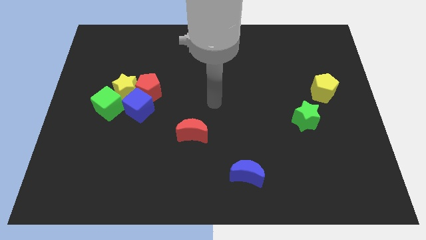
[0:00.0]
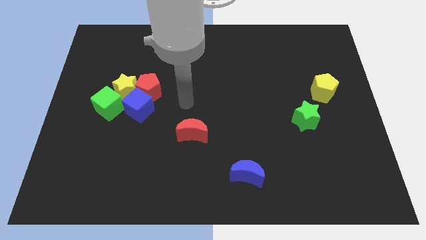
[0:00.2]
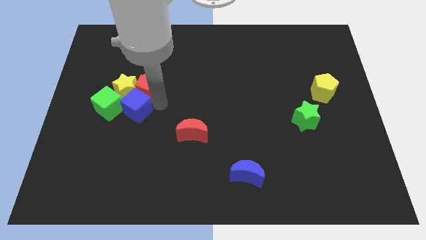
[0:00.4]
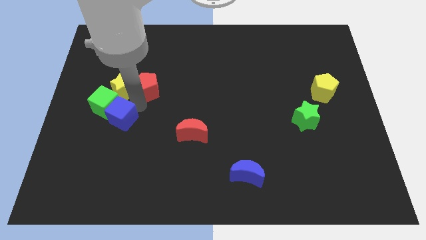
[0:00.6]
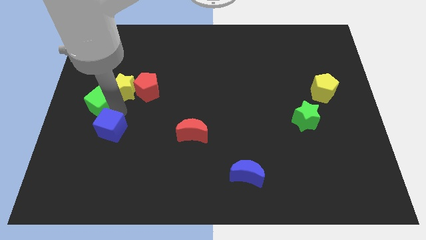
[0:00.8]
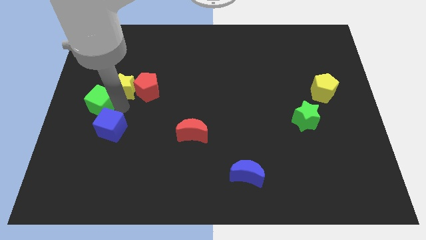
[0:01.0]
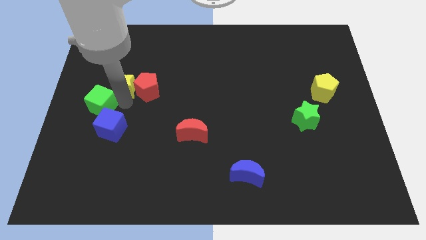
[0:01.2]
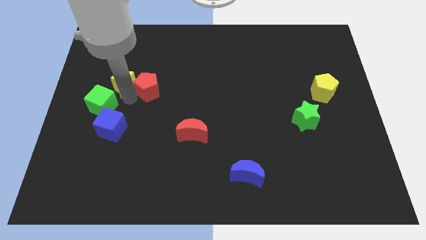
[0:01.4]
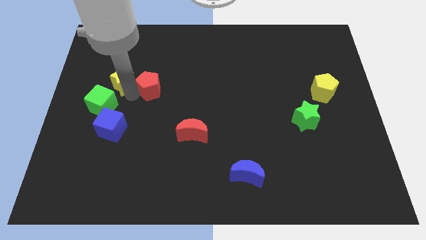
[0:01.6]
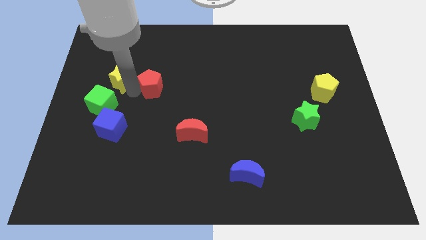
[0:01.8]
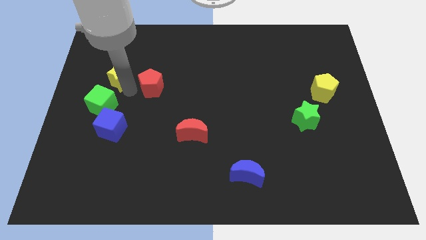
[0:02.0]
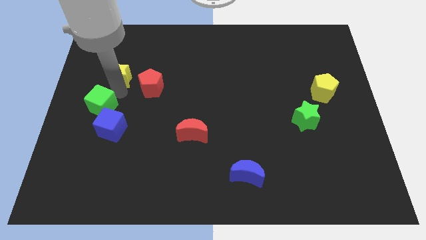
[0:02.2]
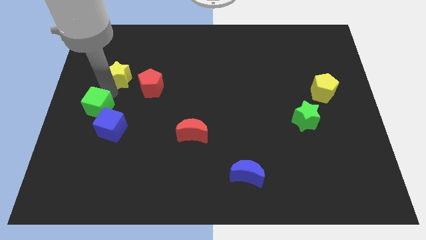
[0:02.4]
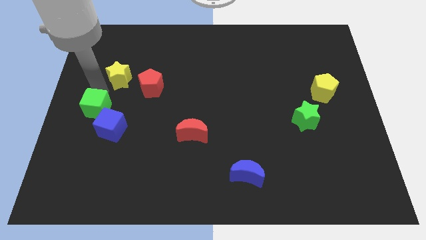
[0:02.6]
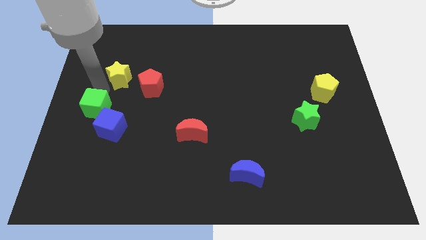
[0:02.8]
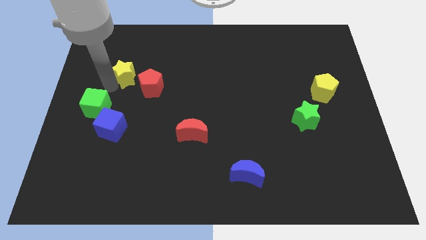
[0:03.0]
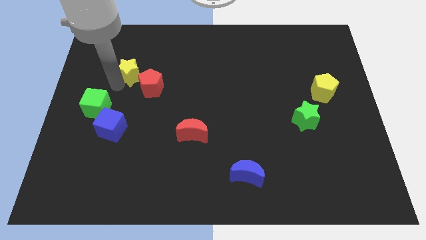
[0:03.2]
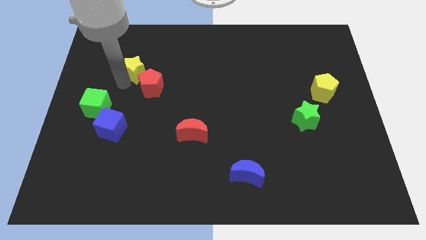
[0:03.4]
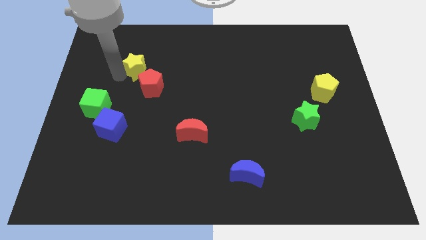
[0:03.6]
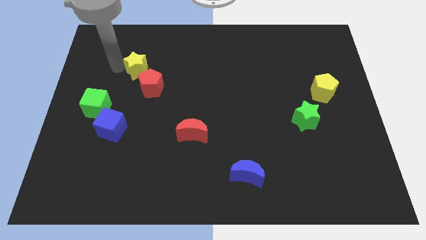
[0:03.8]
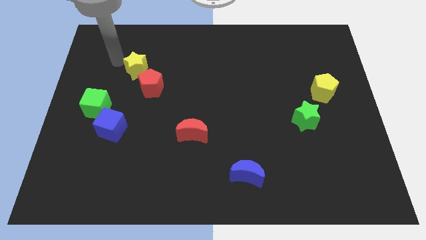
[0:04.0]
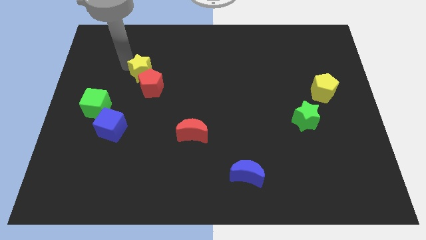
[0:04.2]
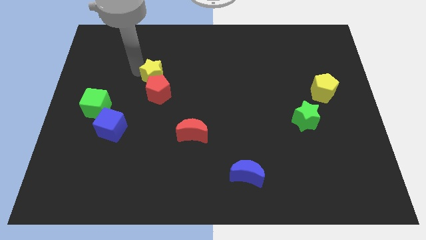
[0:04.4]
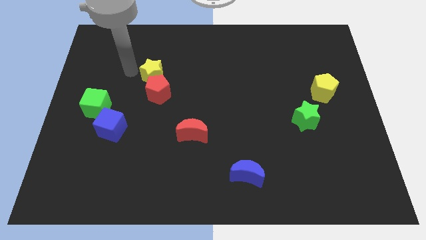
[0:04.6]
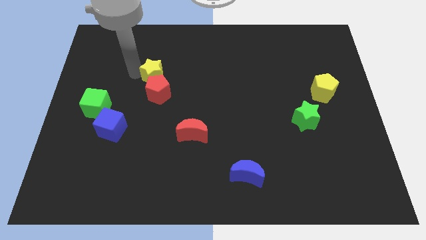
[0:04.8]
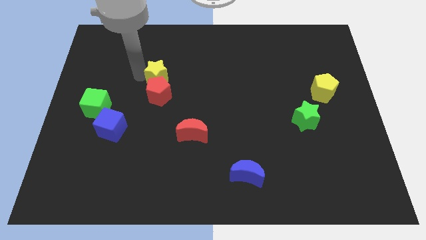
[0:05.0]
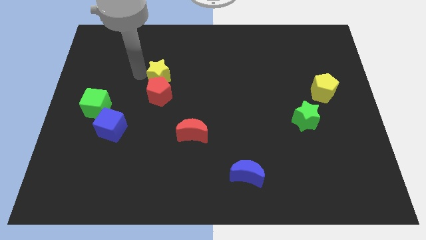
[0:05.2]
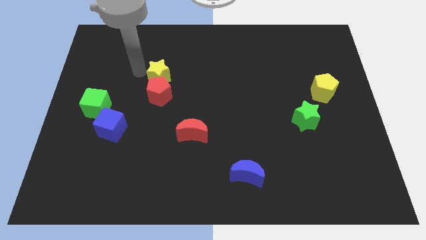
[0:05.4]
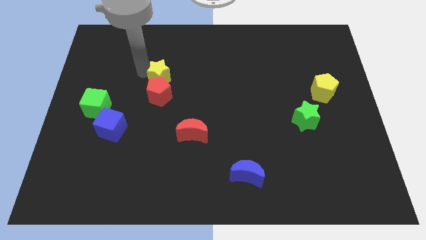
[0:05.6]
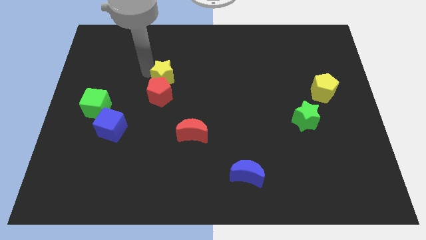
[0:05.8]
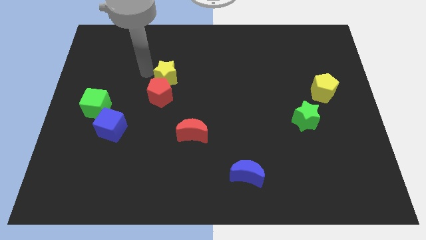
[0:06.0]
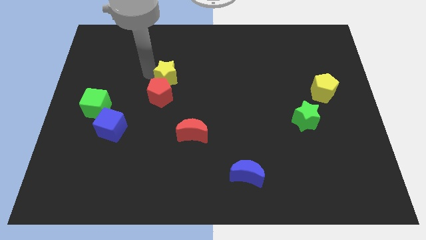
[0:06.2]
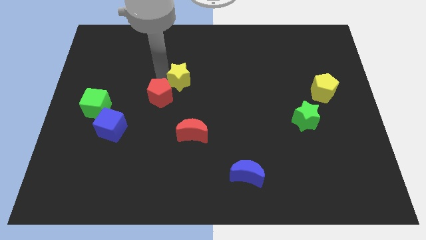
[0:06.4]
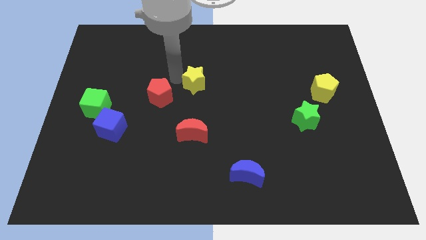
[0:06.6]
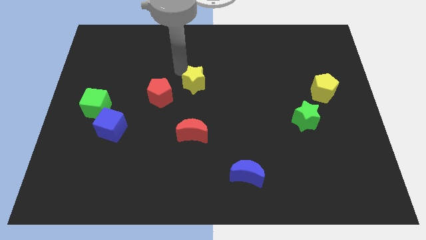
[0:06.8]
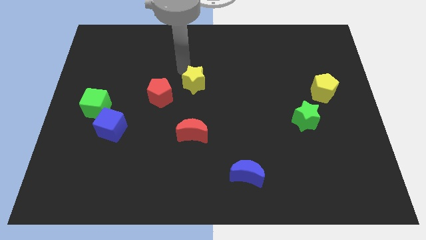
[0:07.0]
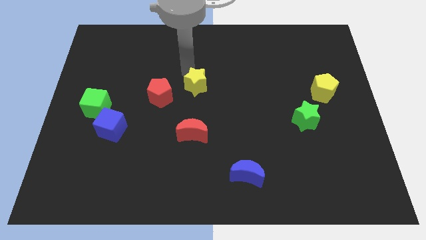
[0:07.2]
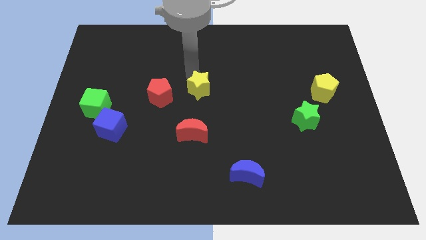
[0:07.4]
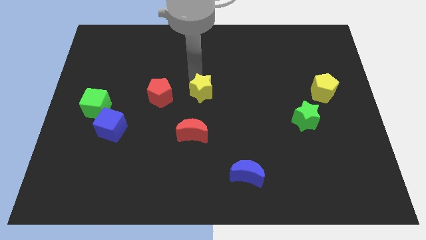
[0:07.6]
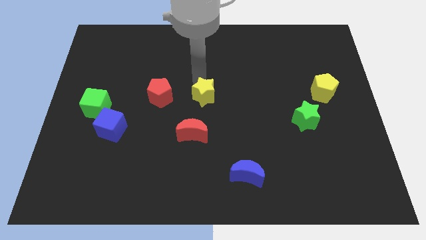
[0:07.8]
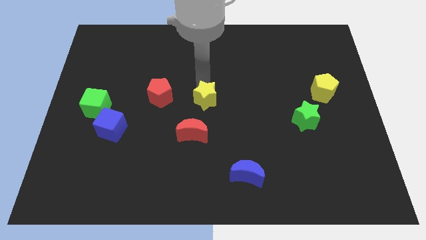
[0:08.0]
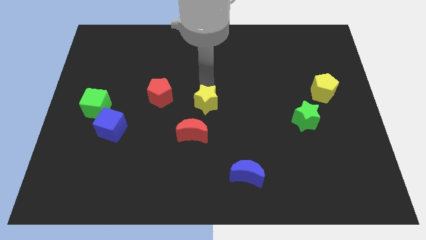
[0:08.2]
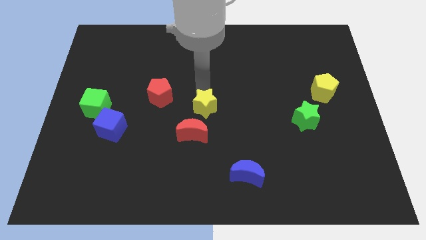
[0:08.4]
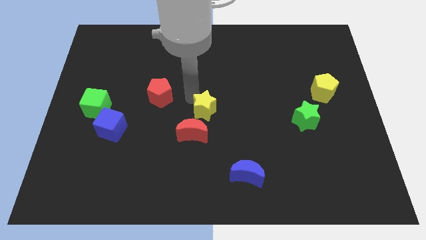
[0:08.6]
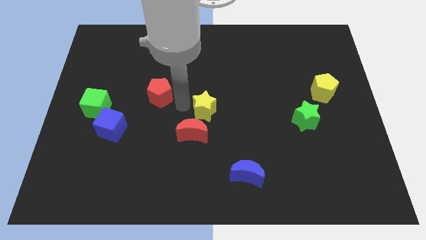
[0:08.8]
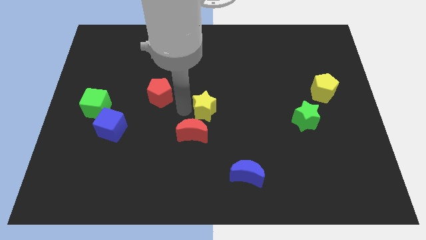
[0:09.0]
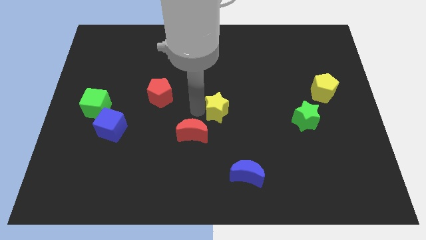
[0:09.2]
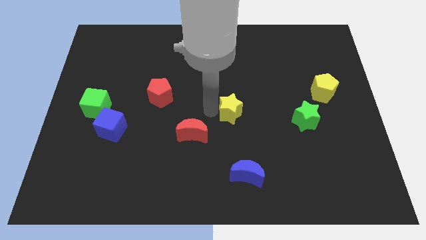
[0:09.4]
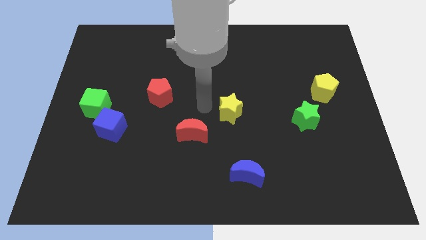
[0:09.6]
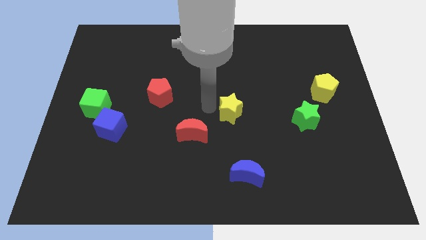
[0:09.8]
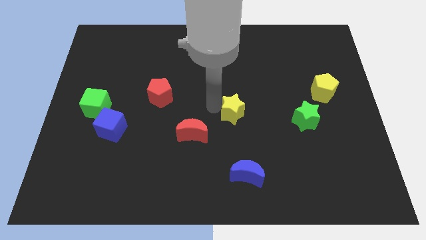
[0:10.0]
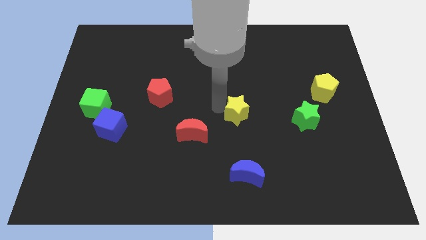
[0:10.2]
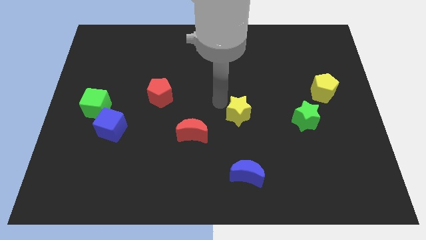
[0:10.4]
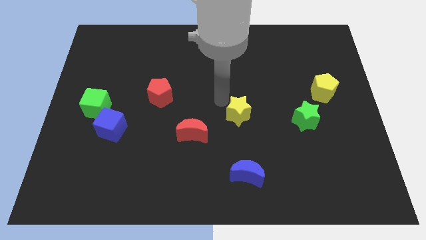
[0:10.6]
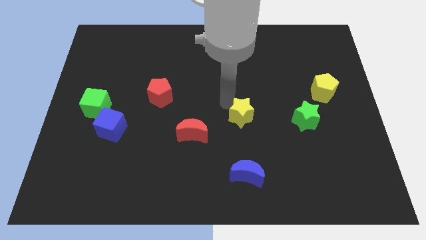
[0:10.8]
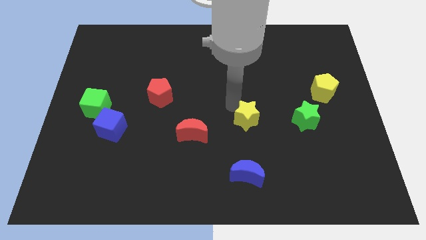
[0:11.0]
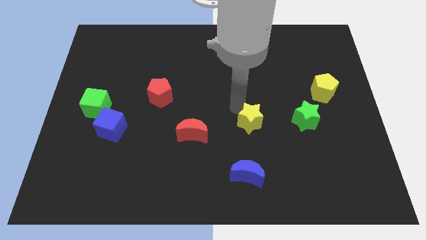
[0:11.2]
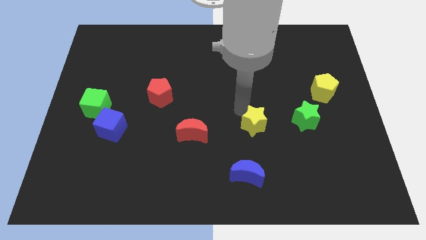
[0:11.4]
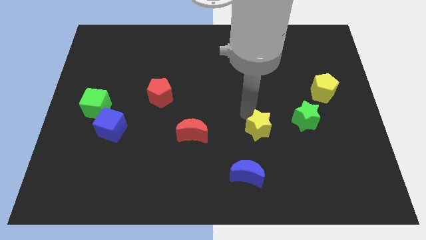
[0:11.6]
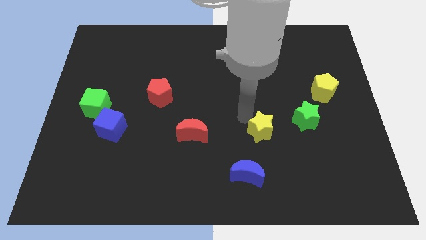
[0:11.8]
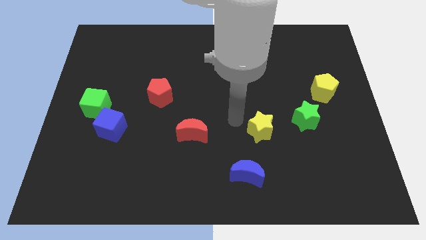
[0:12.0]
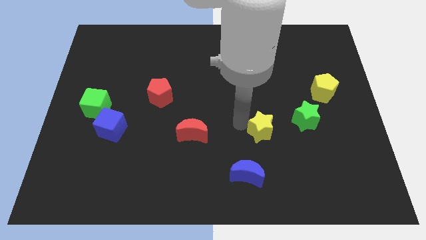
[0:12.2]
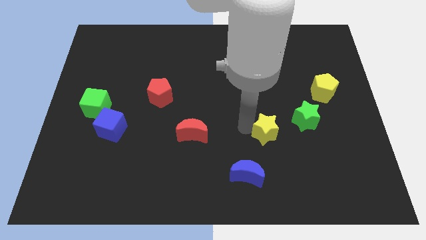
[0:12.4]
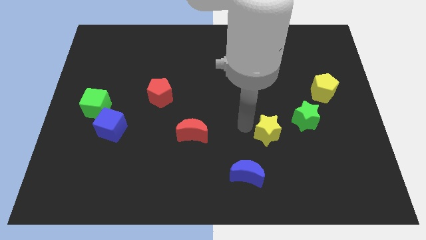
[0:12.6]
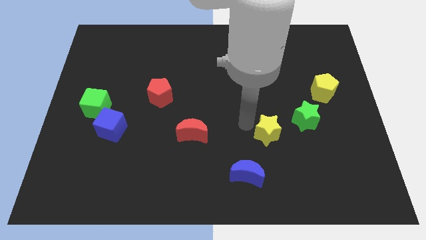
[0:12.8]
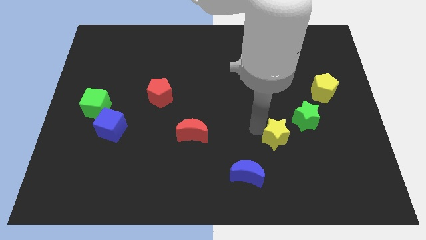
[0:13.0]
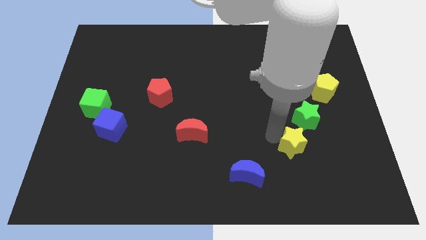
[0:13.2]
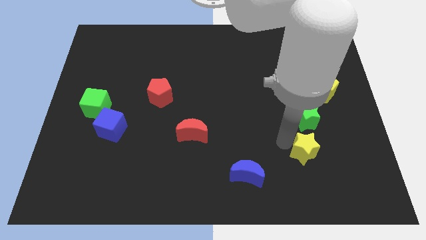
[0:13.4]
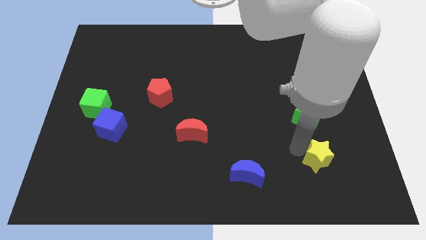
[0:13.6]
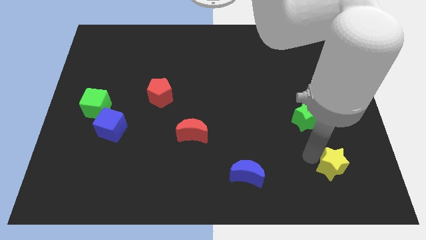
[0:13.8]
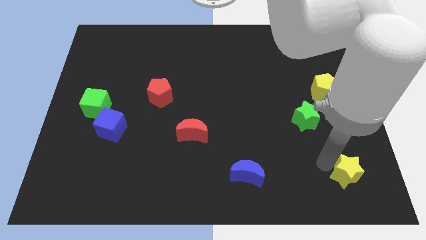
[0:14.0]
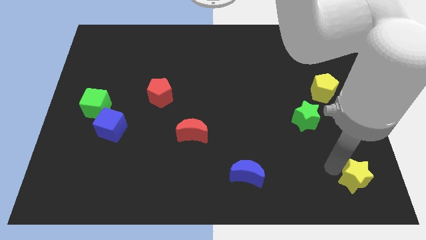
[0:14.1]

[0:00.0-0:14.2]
put the yellow star to the bottom right
